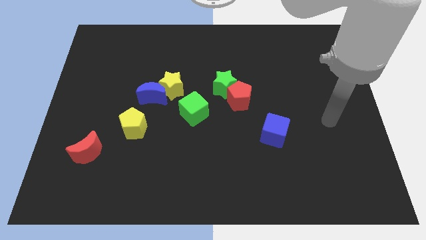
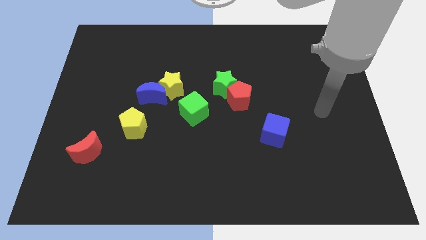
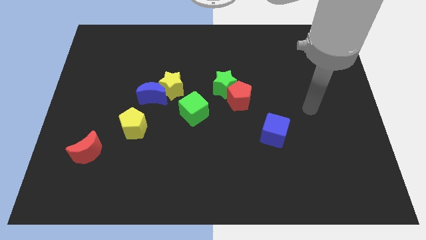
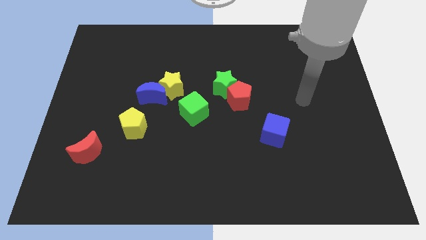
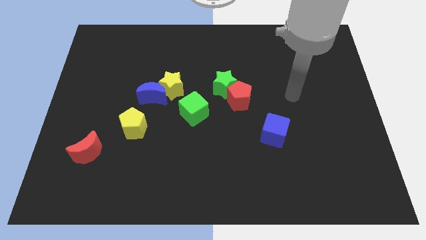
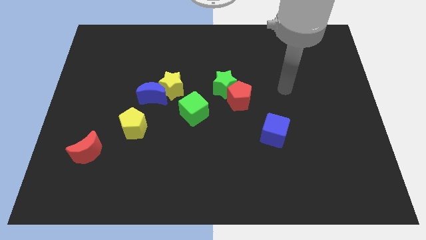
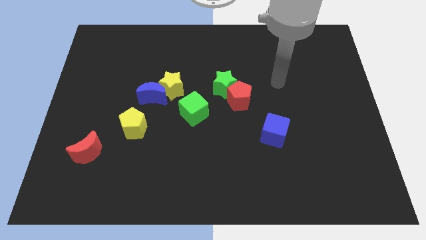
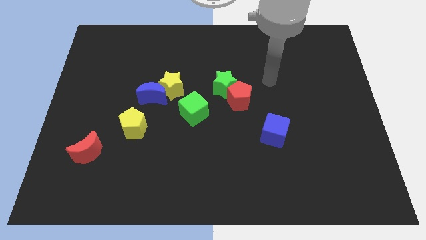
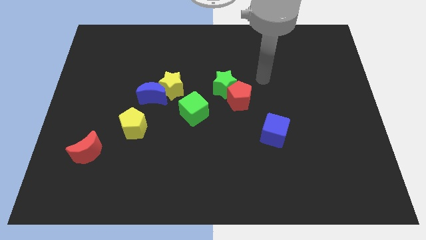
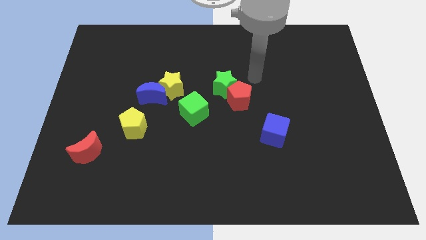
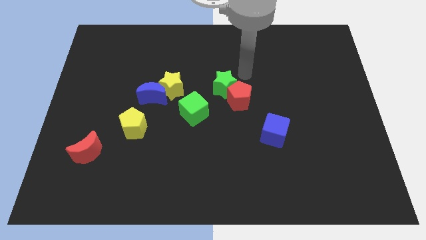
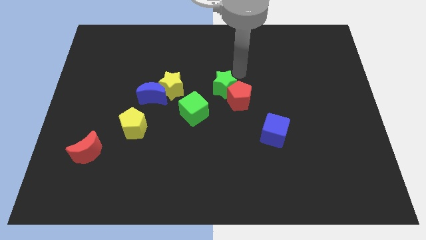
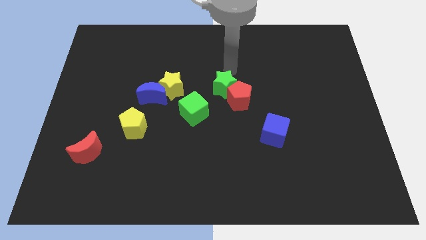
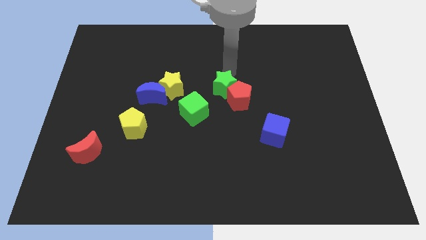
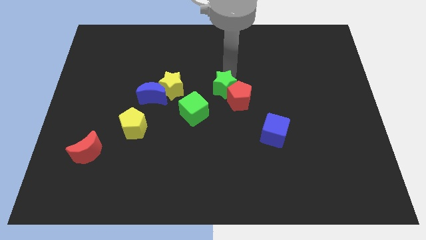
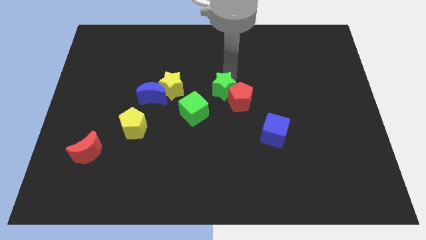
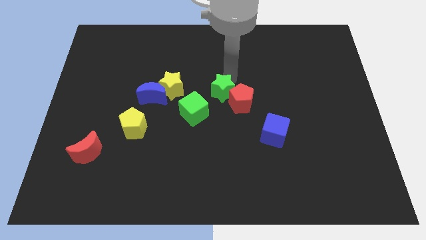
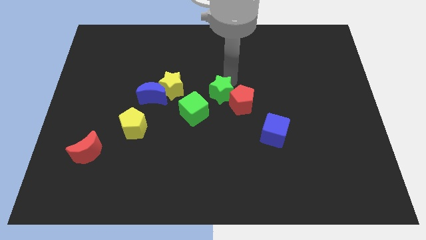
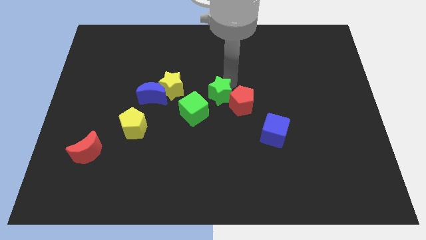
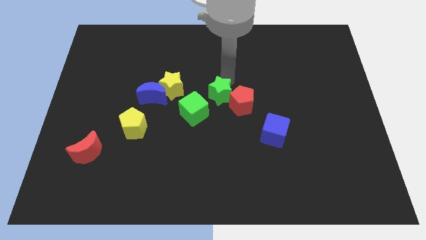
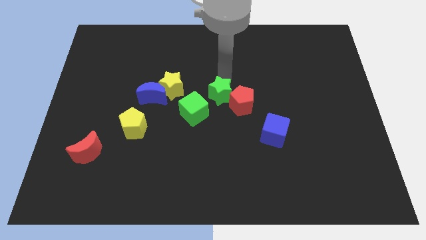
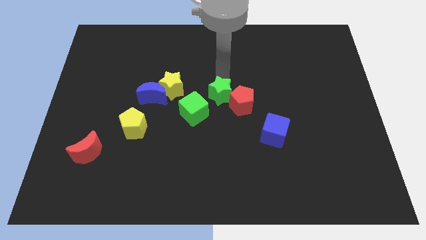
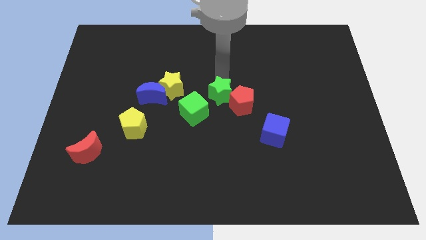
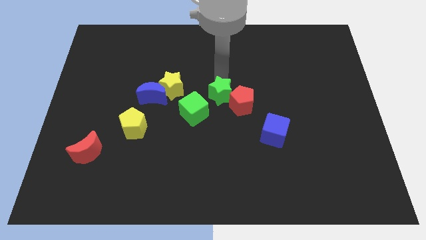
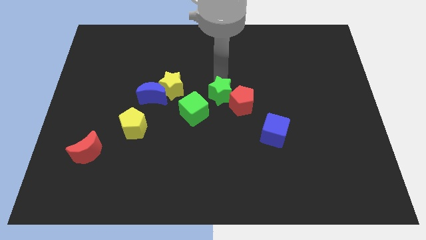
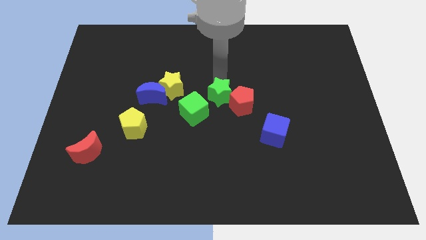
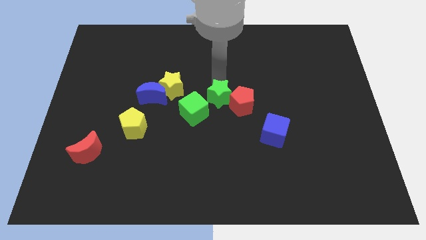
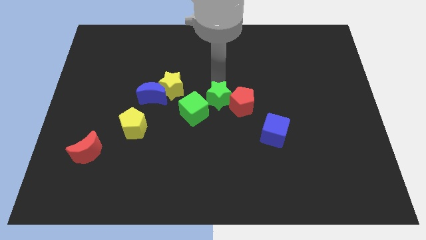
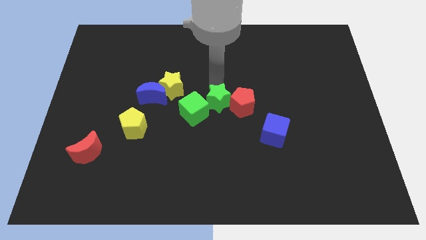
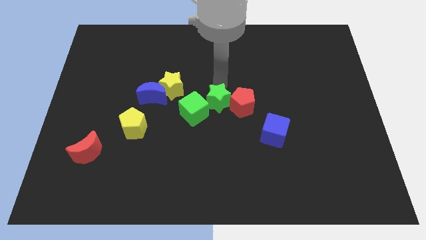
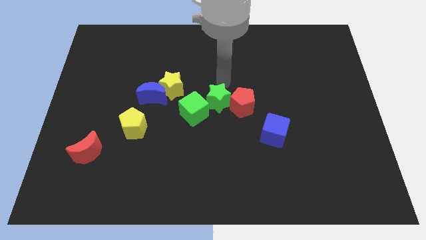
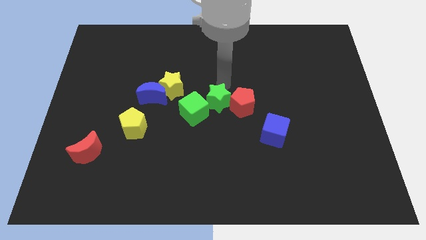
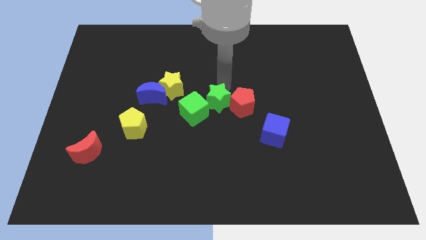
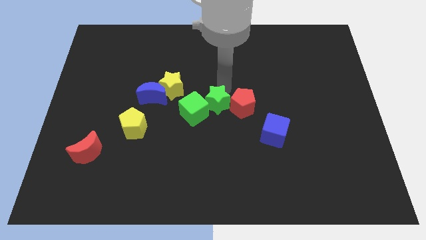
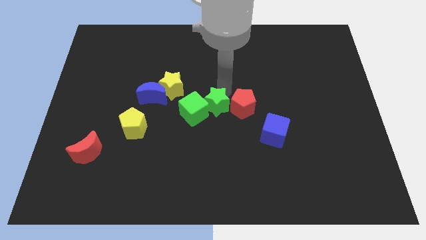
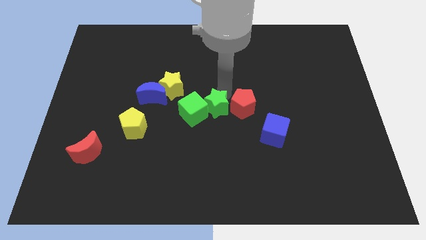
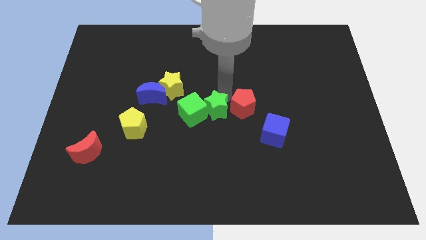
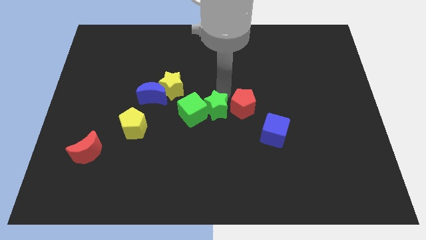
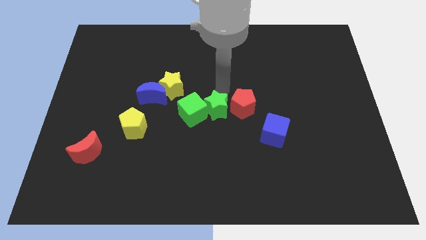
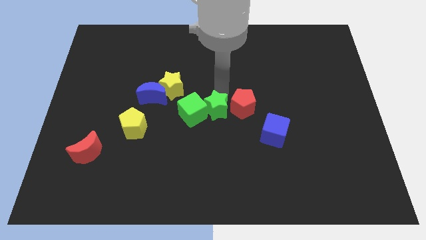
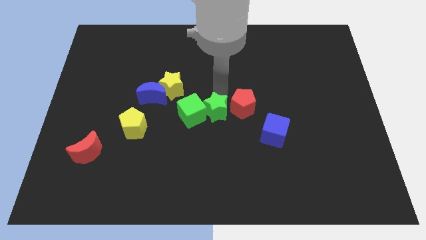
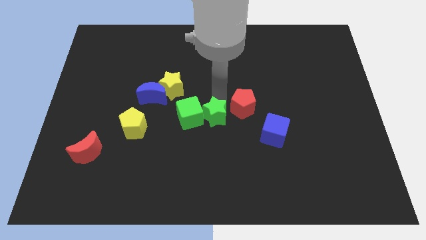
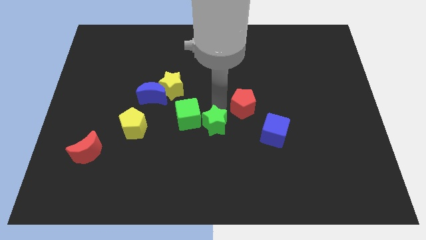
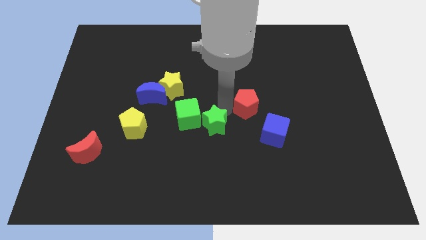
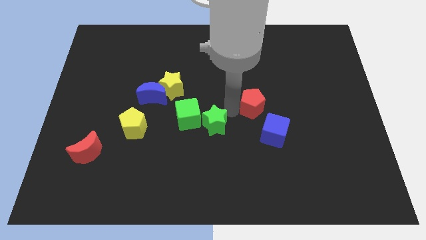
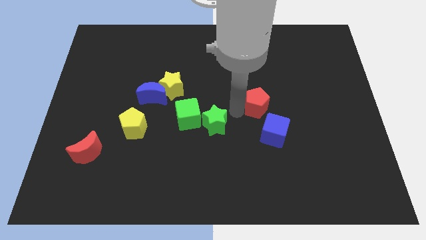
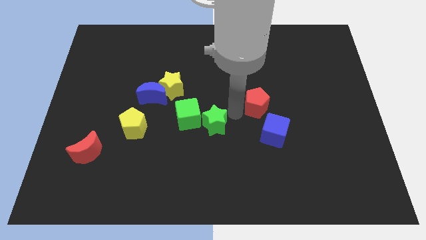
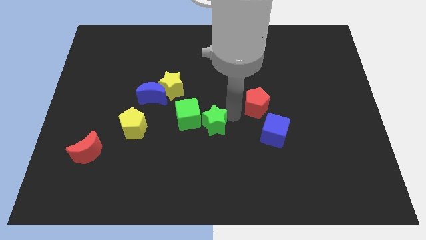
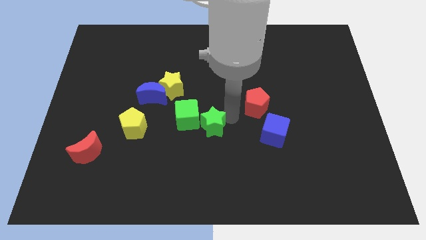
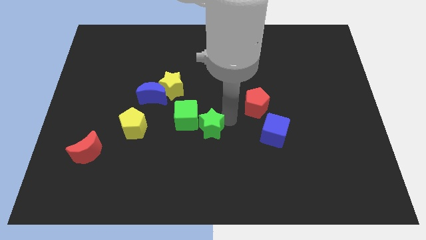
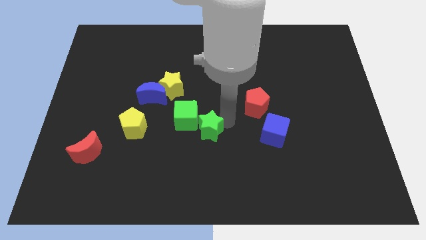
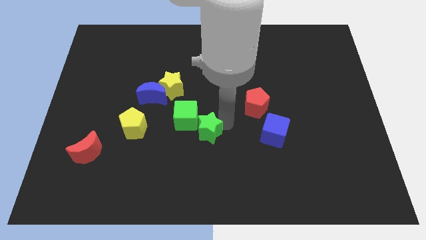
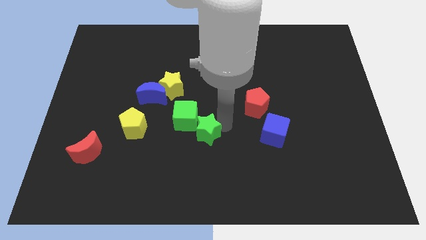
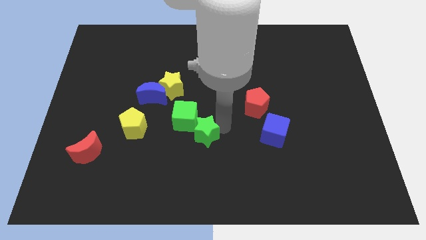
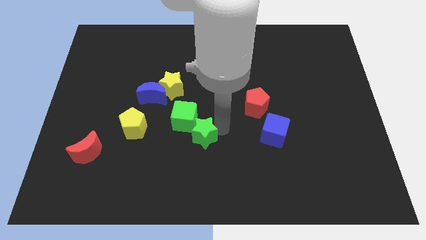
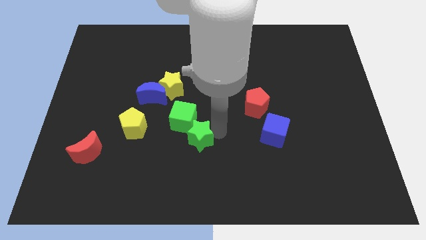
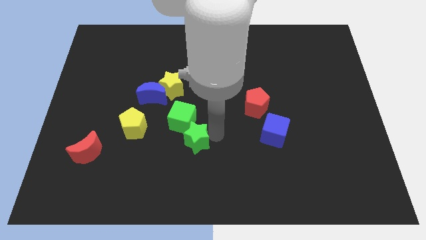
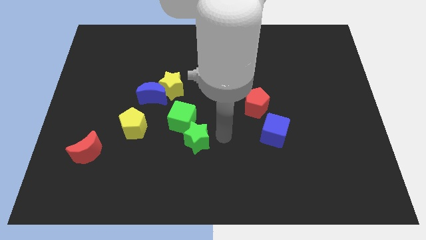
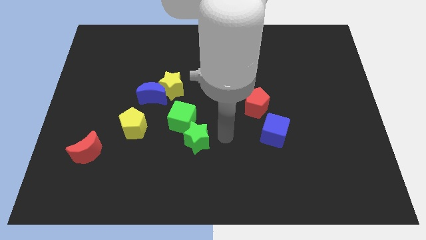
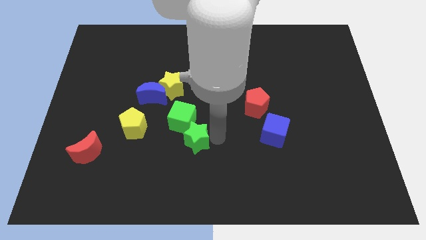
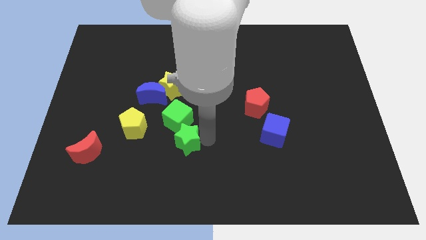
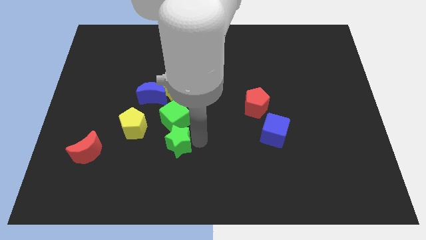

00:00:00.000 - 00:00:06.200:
slide the green star to the bottom right side of the yellow pentagon

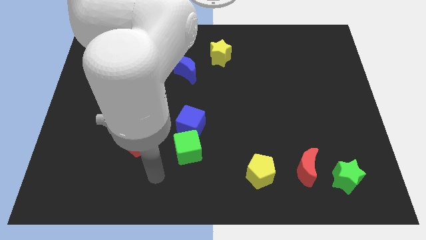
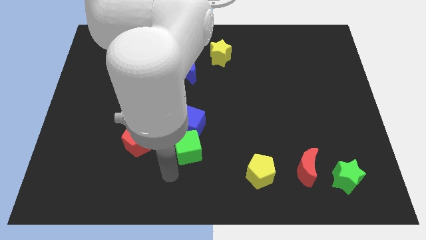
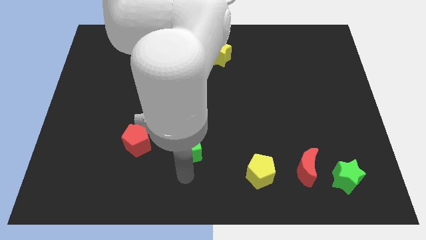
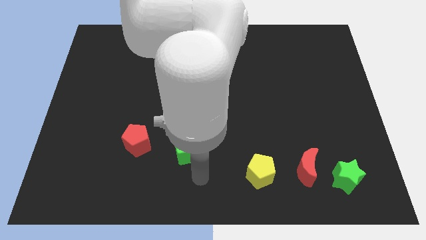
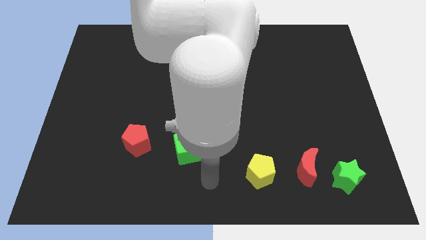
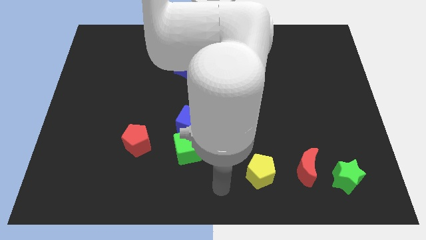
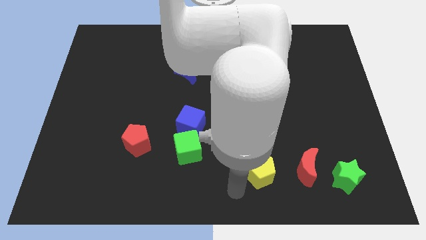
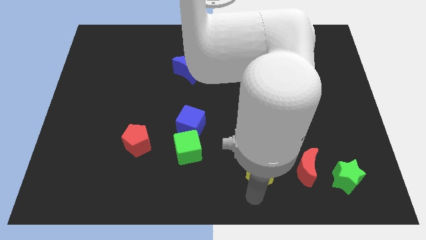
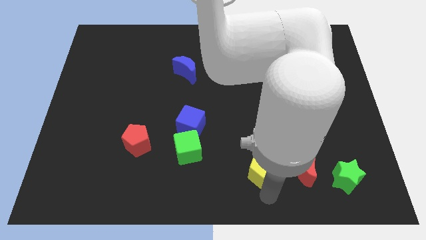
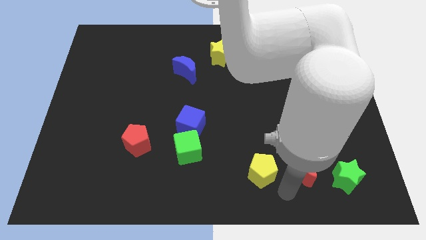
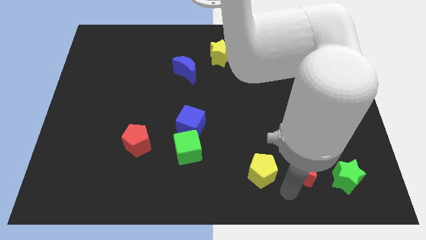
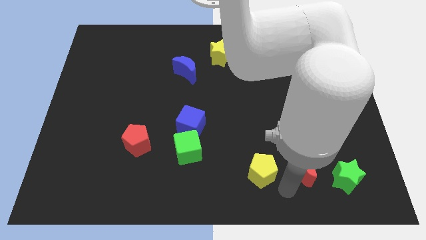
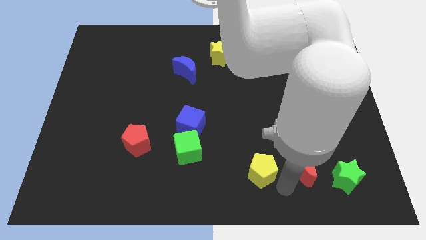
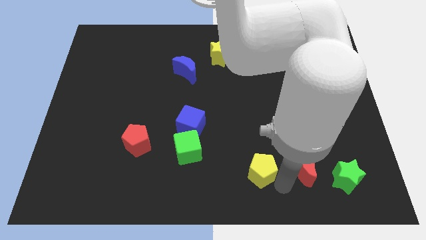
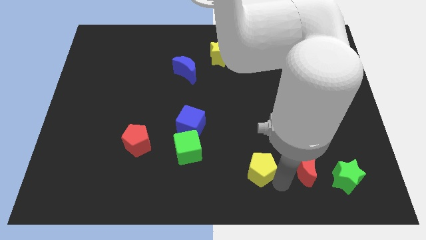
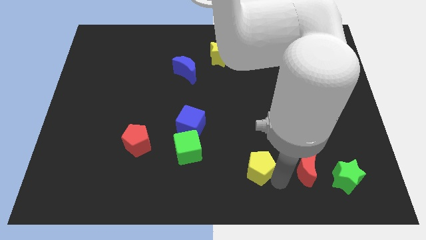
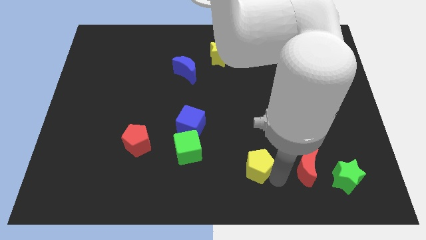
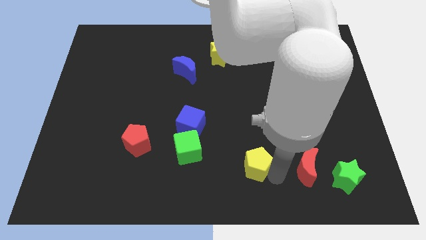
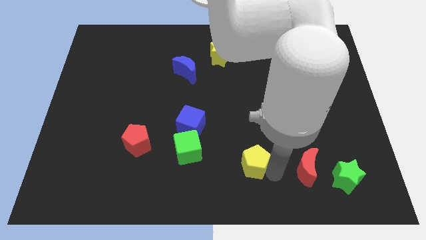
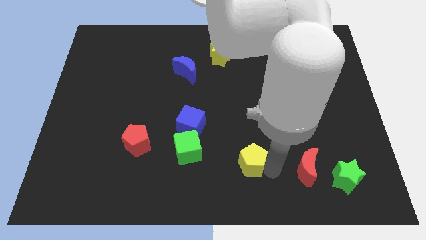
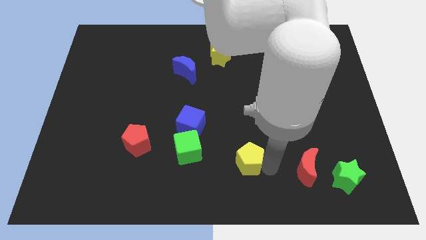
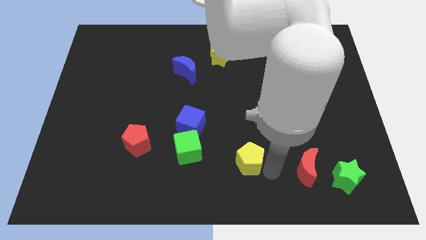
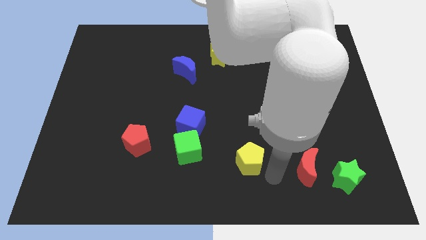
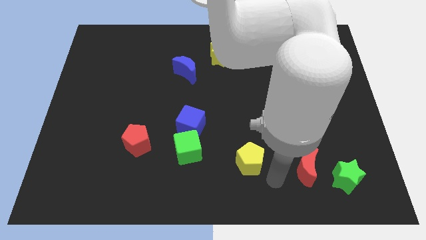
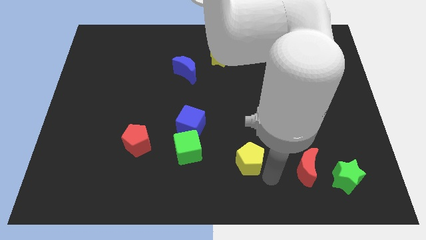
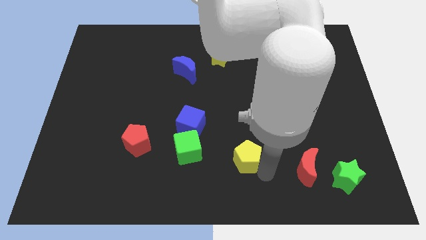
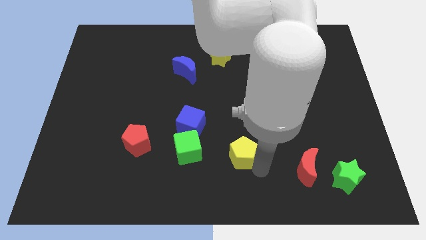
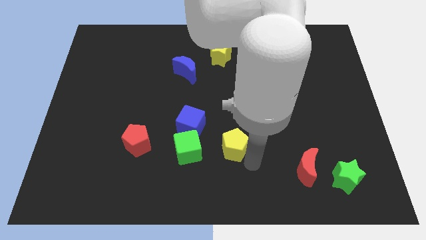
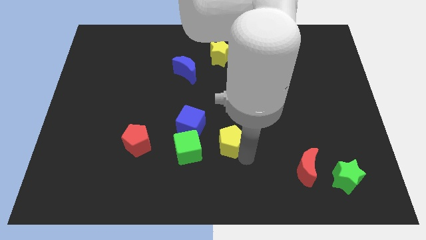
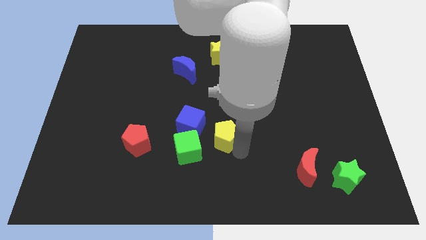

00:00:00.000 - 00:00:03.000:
put the yellow pentagon to the top right of the green cube
